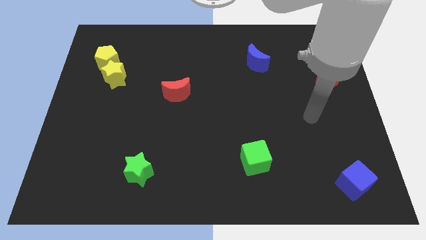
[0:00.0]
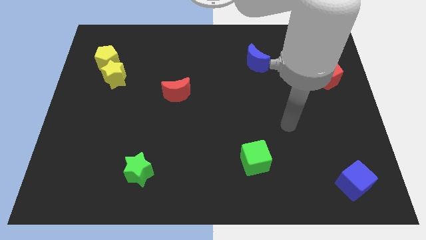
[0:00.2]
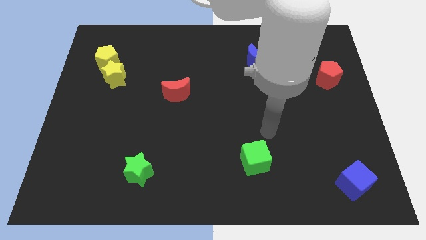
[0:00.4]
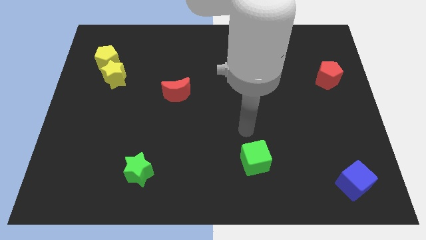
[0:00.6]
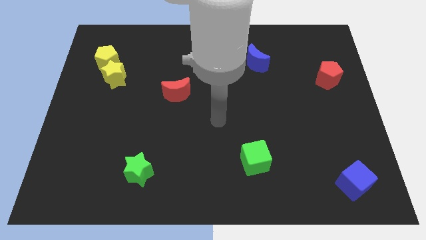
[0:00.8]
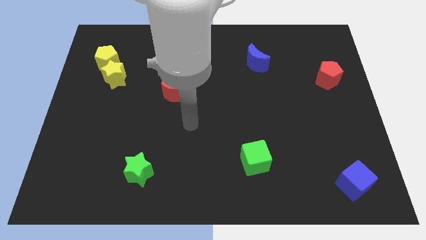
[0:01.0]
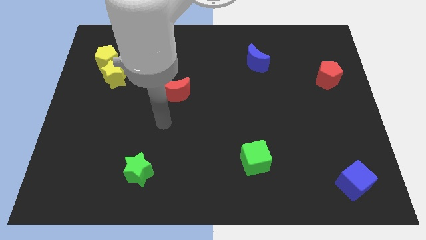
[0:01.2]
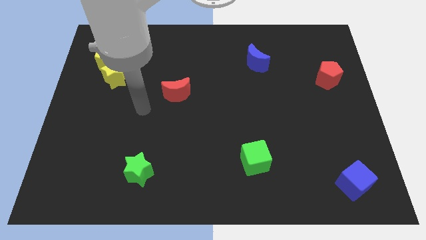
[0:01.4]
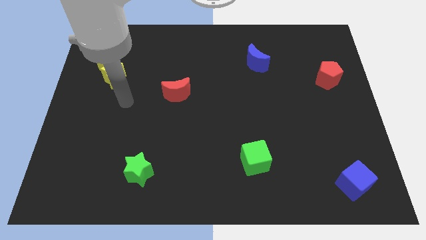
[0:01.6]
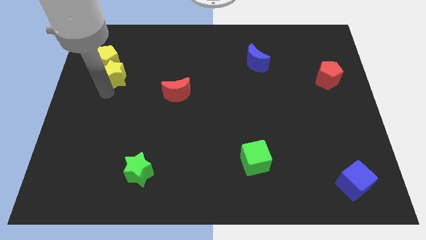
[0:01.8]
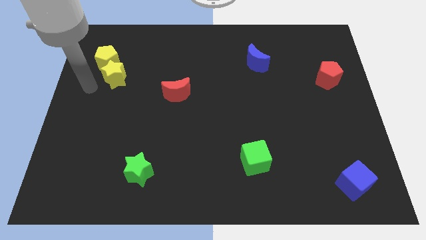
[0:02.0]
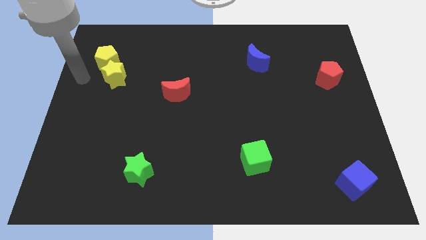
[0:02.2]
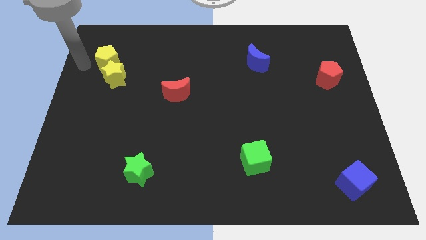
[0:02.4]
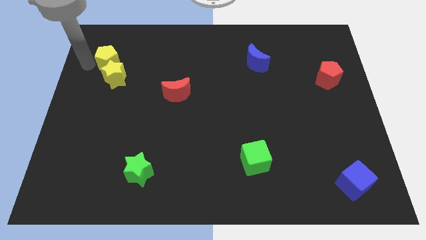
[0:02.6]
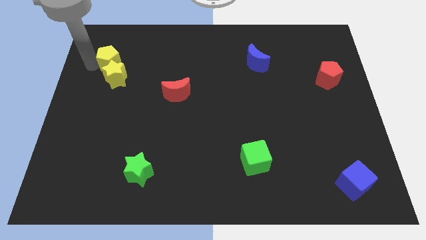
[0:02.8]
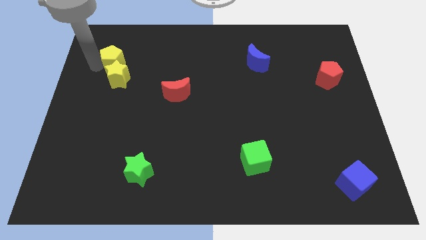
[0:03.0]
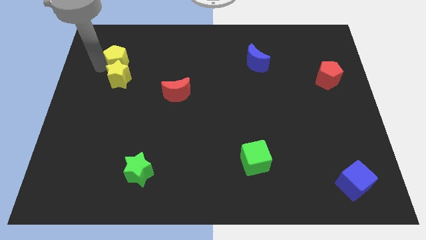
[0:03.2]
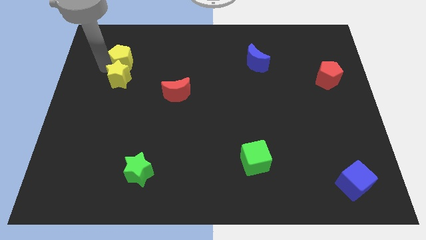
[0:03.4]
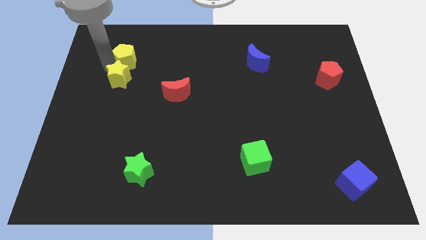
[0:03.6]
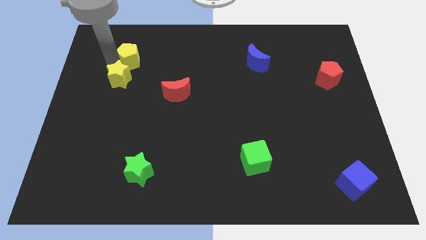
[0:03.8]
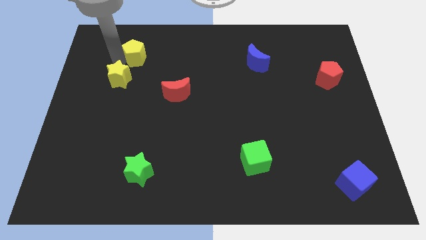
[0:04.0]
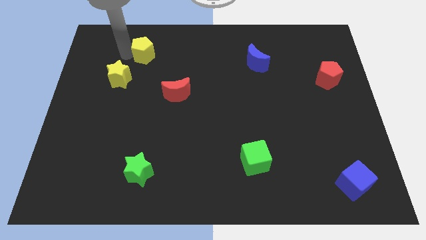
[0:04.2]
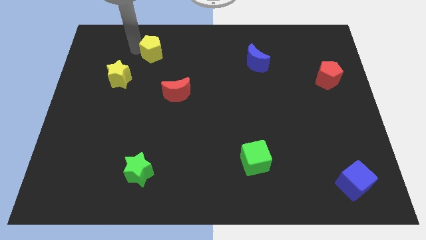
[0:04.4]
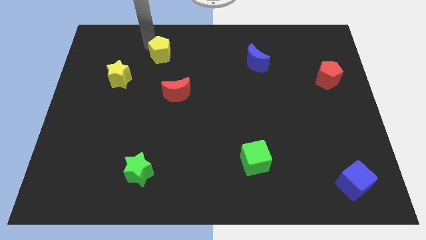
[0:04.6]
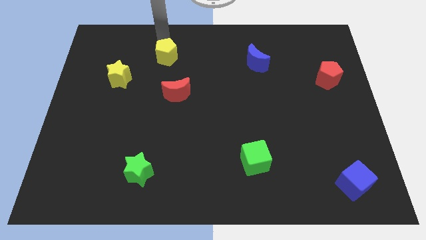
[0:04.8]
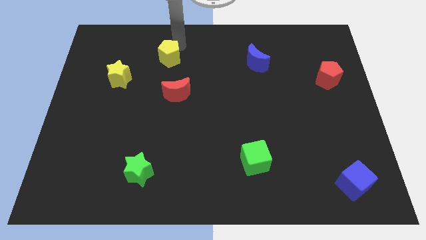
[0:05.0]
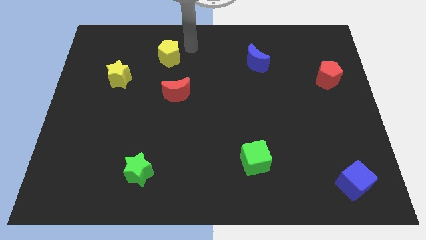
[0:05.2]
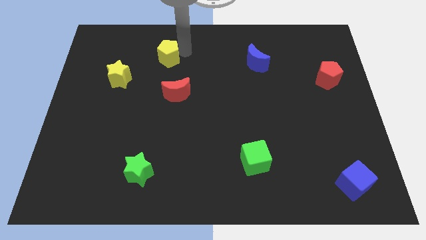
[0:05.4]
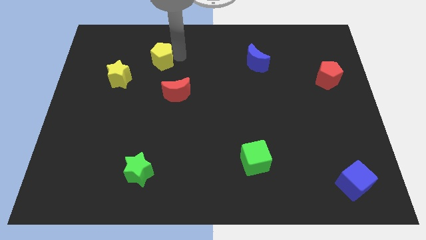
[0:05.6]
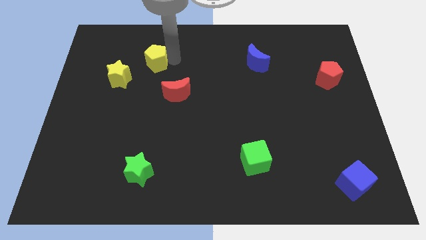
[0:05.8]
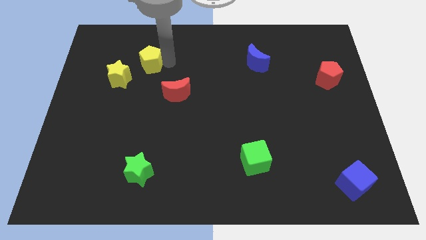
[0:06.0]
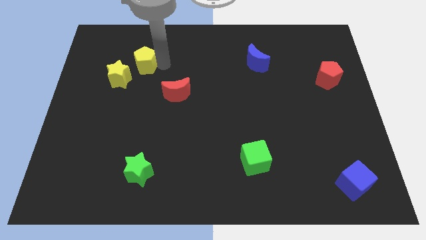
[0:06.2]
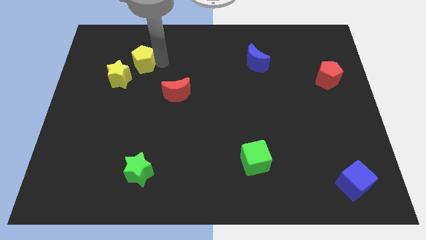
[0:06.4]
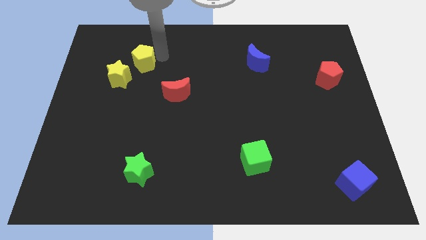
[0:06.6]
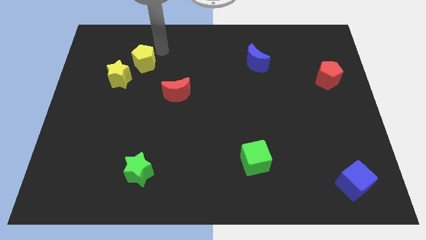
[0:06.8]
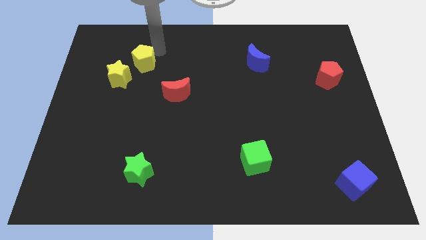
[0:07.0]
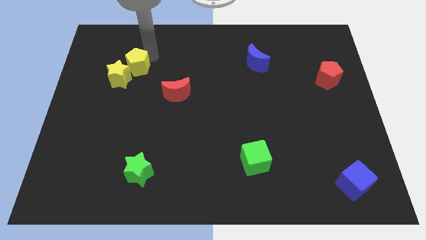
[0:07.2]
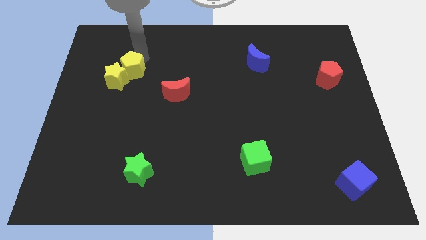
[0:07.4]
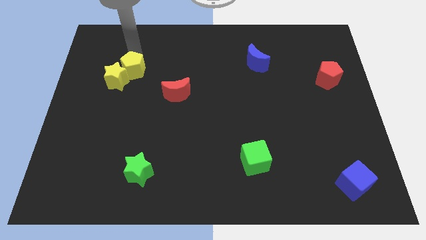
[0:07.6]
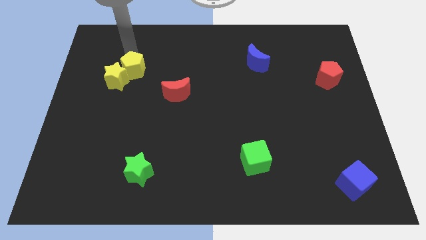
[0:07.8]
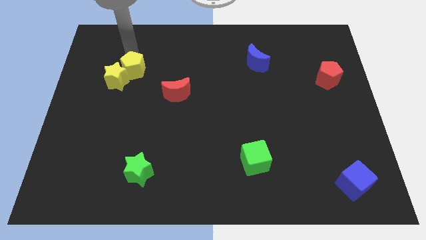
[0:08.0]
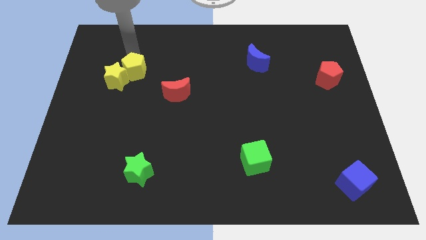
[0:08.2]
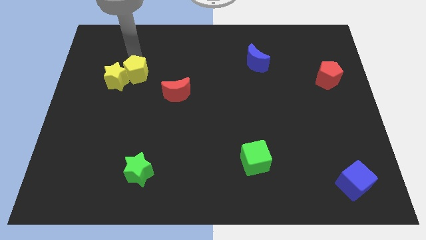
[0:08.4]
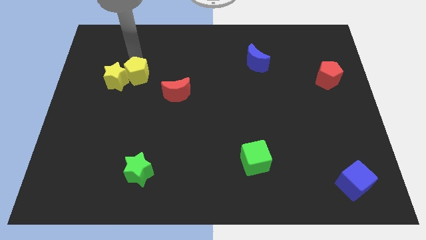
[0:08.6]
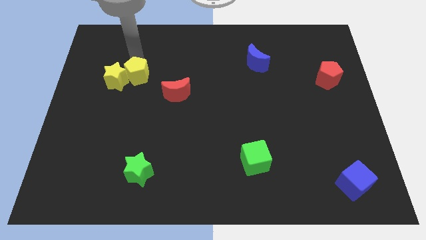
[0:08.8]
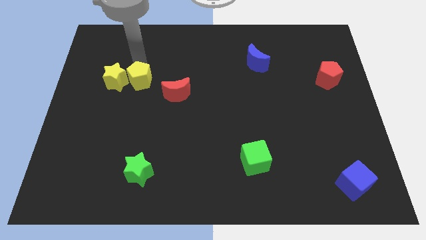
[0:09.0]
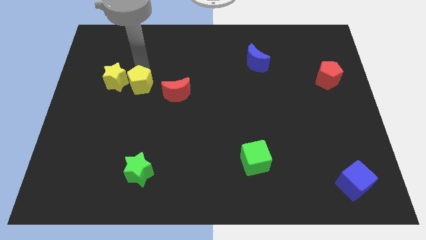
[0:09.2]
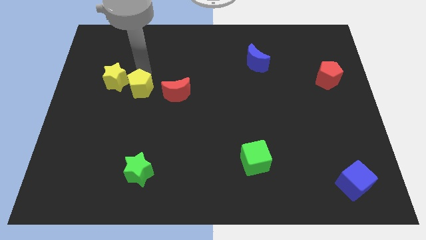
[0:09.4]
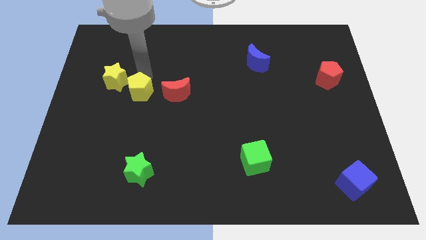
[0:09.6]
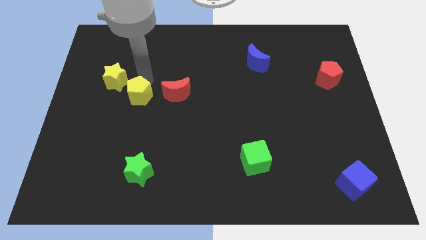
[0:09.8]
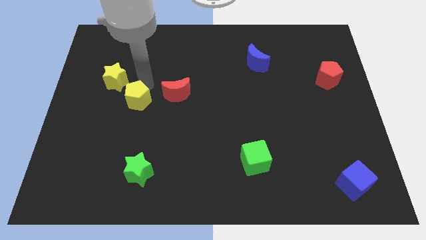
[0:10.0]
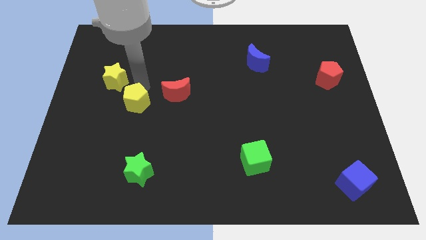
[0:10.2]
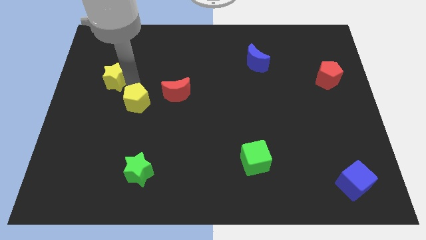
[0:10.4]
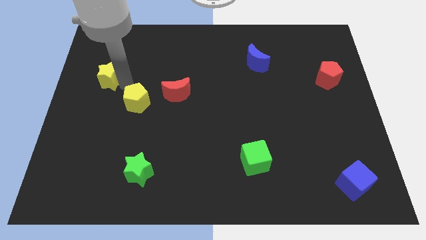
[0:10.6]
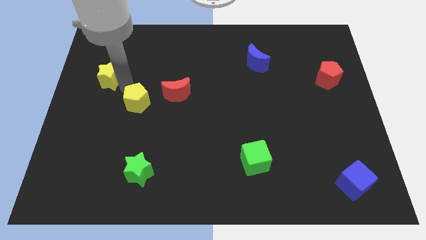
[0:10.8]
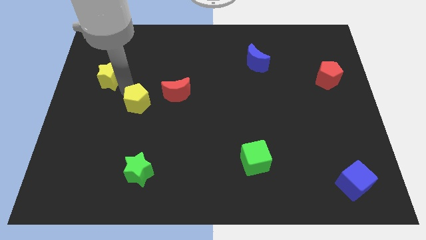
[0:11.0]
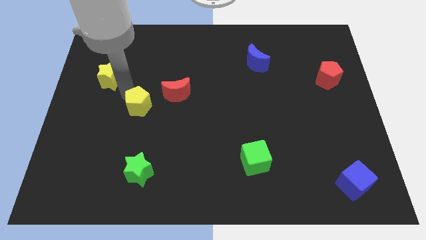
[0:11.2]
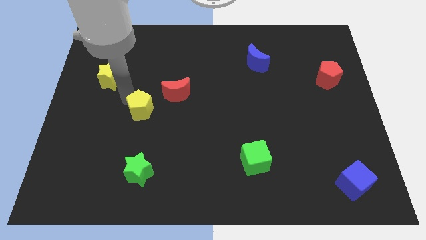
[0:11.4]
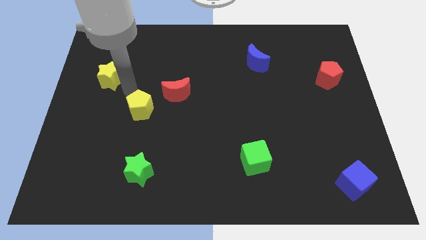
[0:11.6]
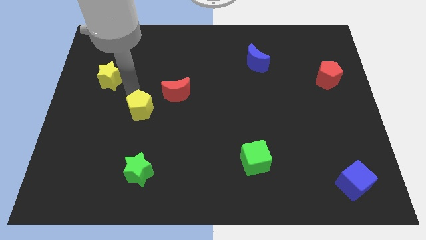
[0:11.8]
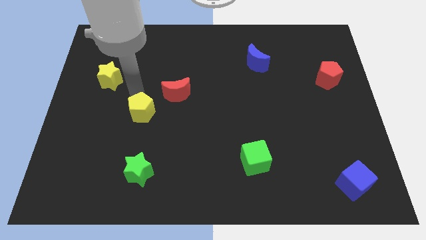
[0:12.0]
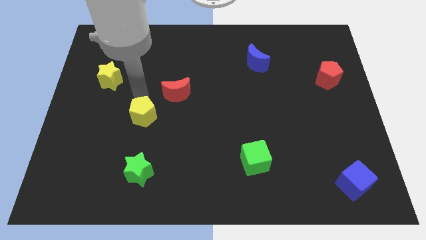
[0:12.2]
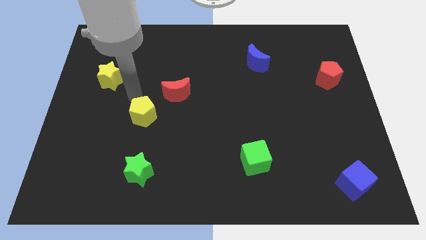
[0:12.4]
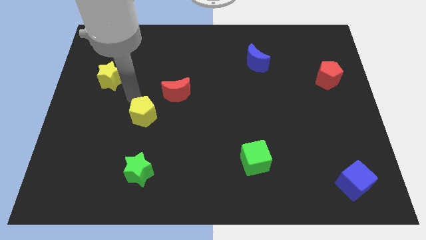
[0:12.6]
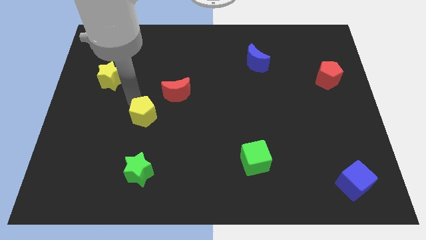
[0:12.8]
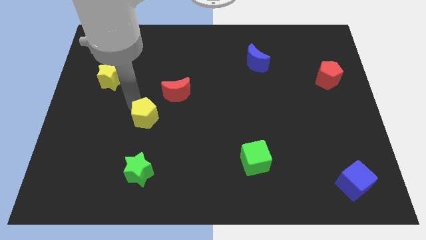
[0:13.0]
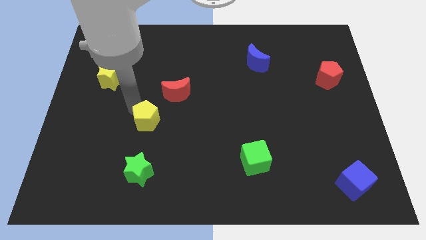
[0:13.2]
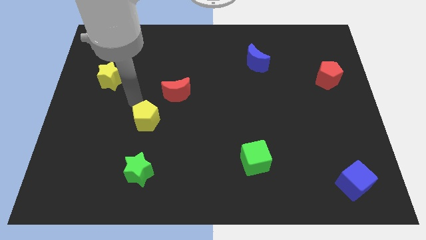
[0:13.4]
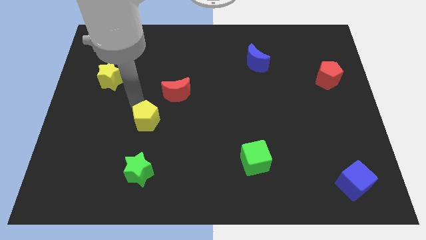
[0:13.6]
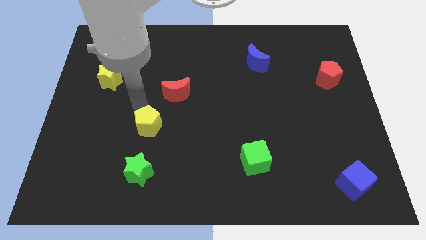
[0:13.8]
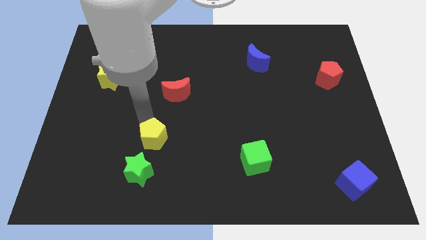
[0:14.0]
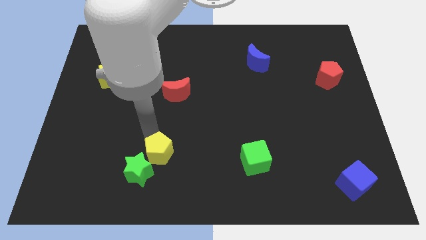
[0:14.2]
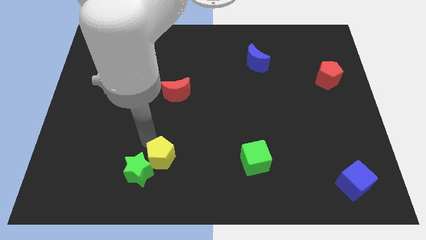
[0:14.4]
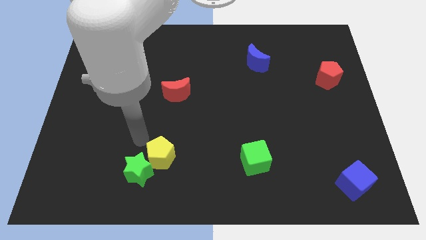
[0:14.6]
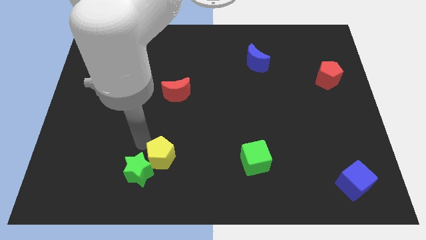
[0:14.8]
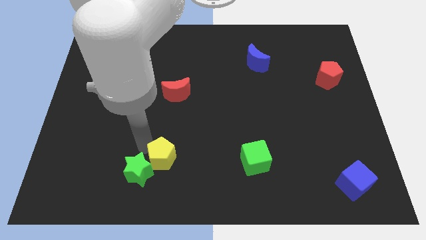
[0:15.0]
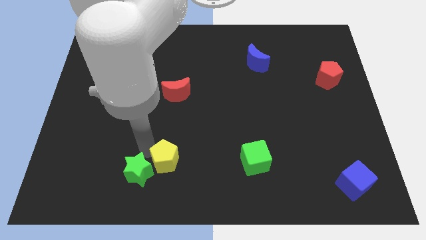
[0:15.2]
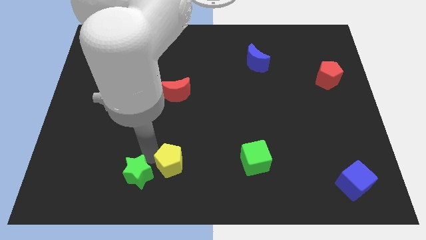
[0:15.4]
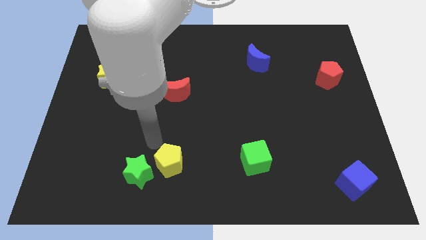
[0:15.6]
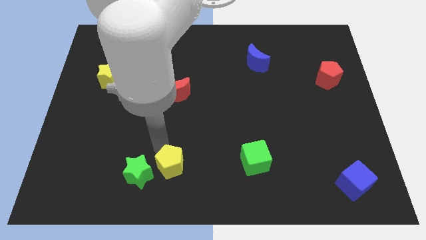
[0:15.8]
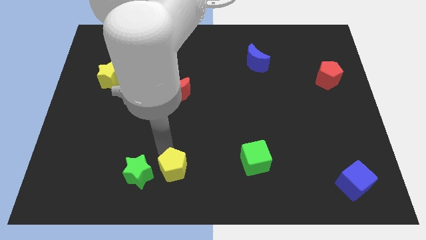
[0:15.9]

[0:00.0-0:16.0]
slide the yellow pentagon to the bottom

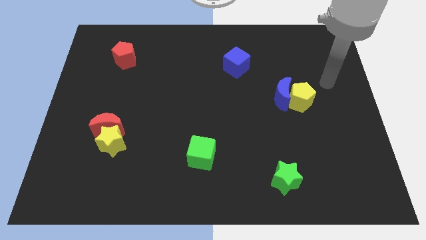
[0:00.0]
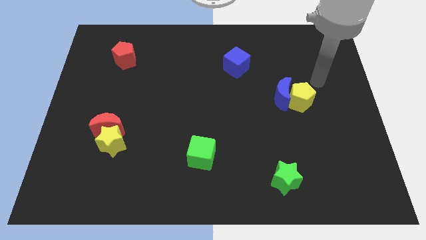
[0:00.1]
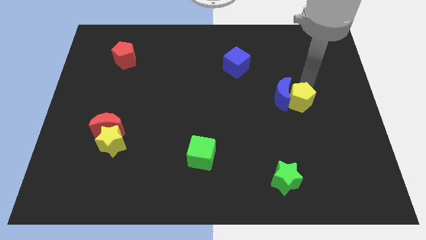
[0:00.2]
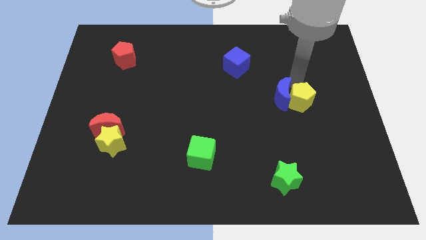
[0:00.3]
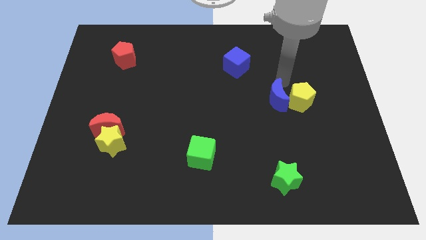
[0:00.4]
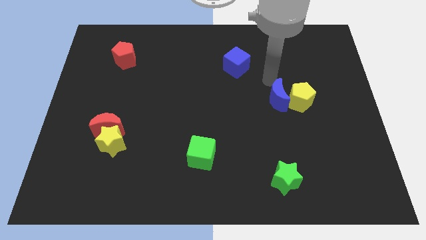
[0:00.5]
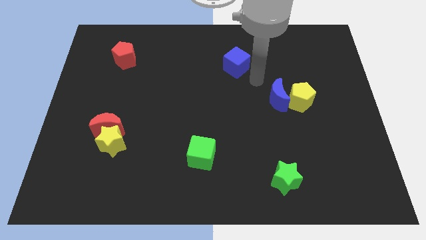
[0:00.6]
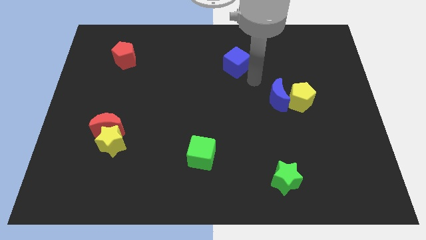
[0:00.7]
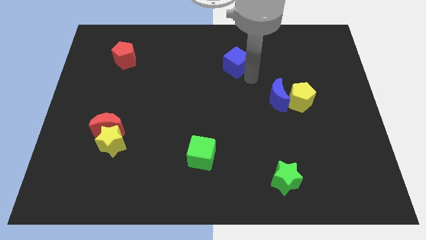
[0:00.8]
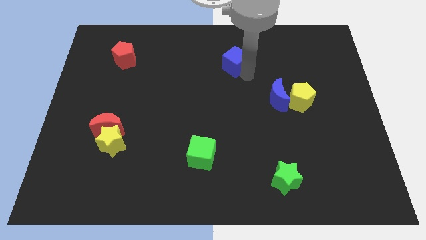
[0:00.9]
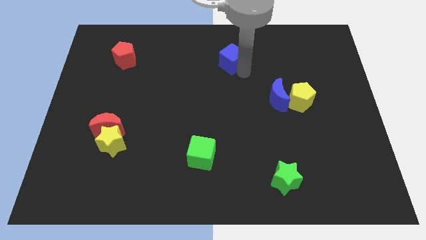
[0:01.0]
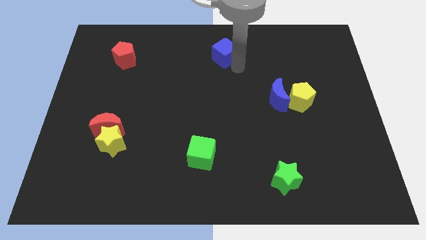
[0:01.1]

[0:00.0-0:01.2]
put the blue cube to the top
